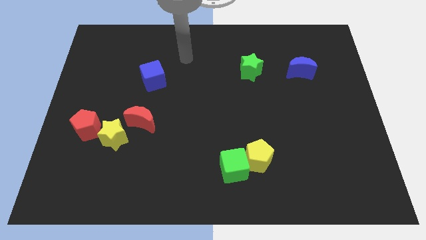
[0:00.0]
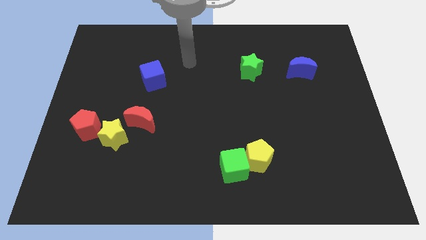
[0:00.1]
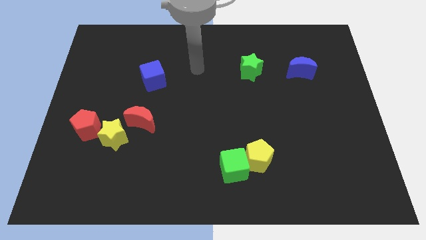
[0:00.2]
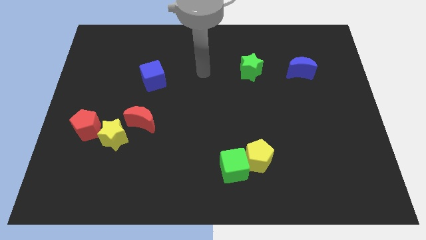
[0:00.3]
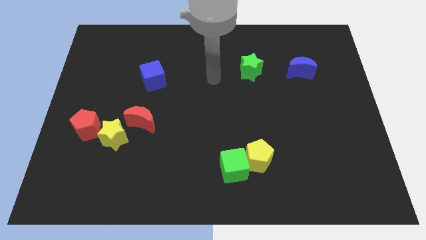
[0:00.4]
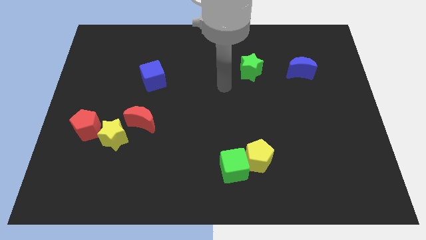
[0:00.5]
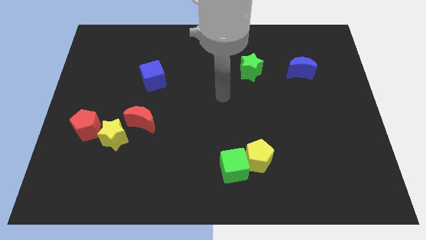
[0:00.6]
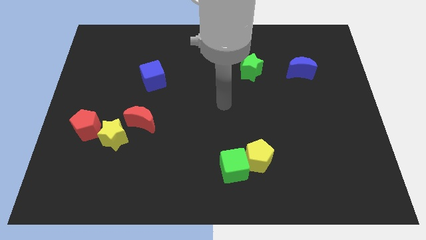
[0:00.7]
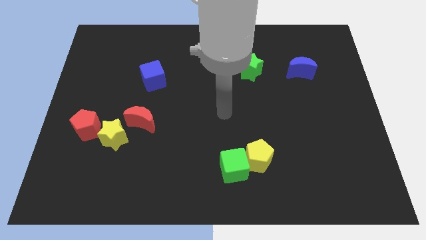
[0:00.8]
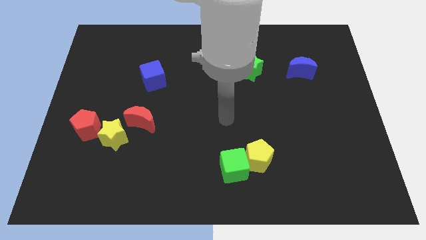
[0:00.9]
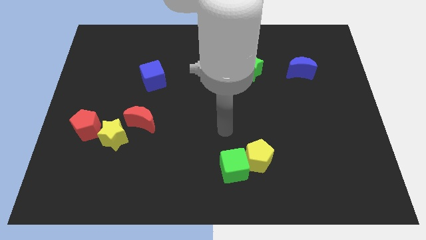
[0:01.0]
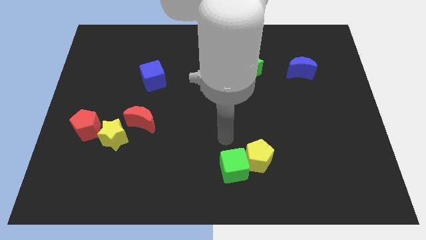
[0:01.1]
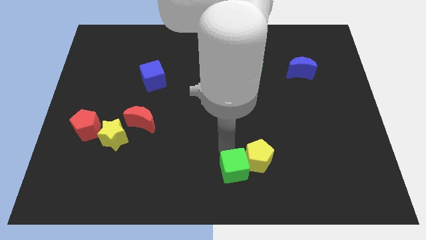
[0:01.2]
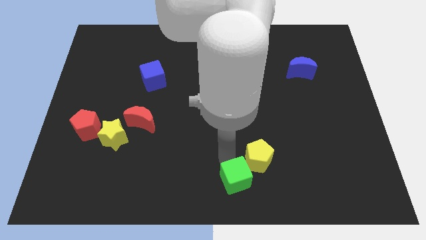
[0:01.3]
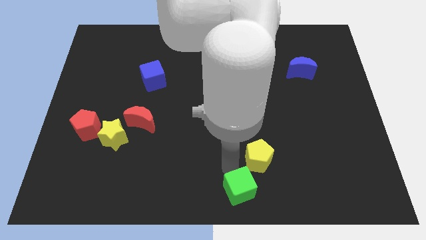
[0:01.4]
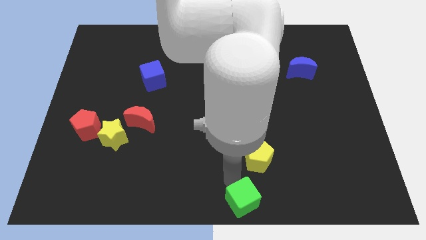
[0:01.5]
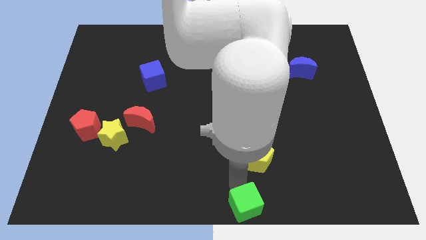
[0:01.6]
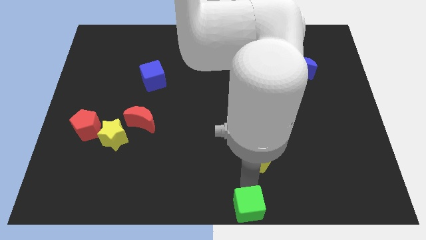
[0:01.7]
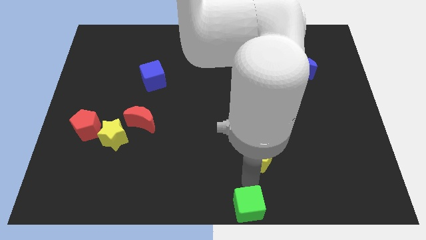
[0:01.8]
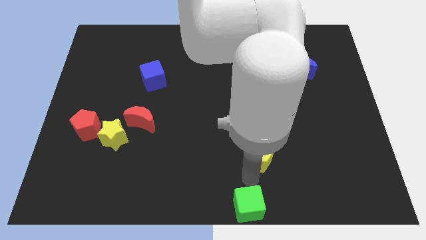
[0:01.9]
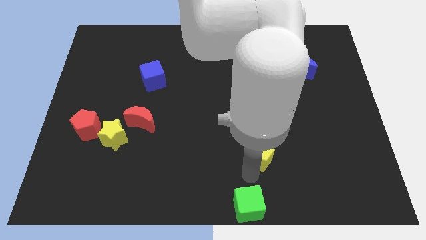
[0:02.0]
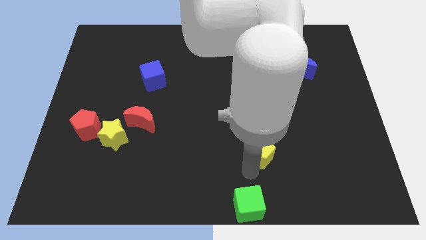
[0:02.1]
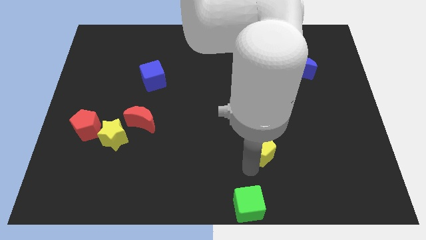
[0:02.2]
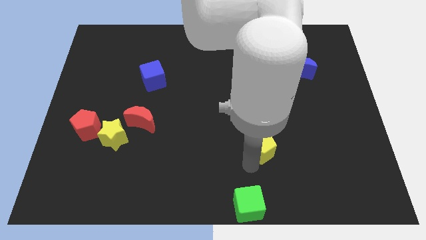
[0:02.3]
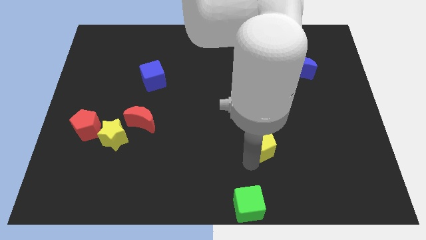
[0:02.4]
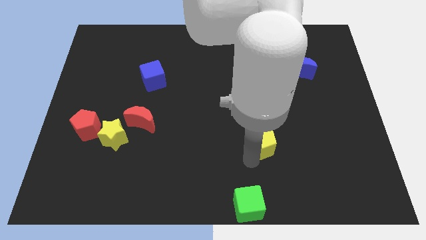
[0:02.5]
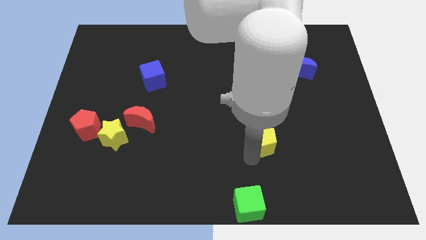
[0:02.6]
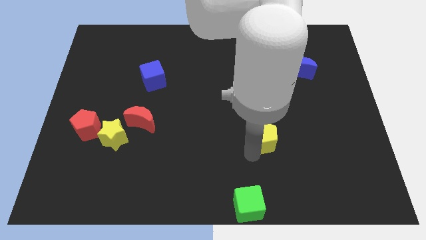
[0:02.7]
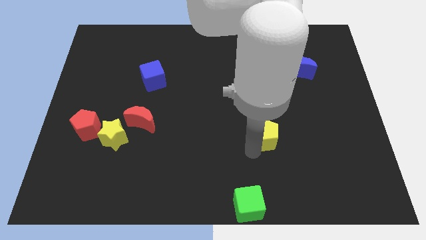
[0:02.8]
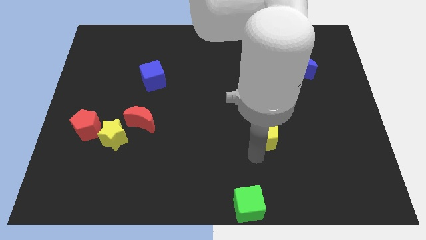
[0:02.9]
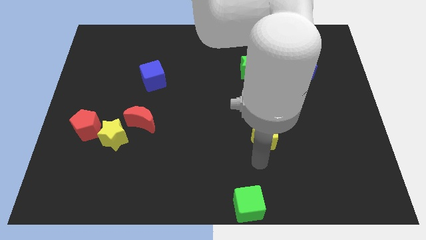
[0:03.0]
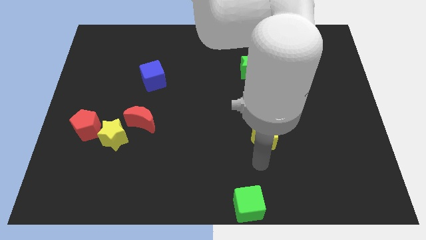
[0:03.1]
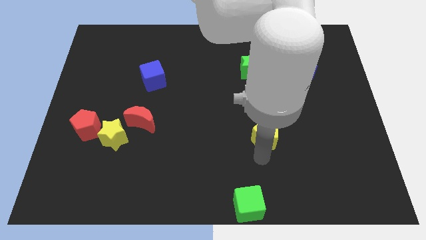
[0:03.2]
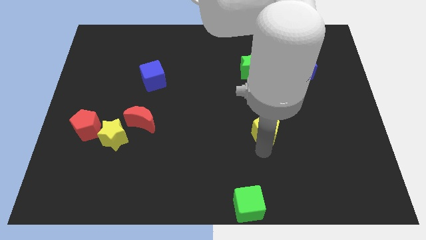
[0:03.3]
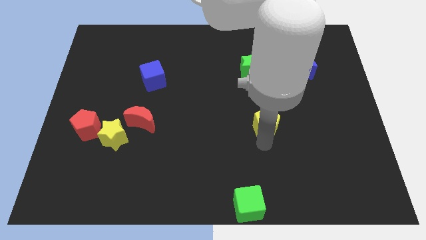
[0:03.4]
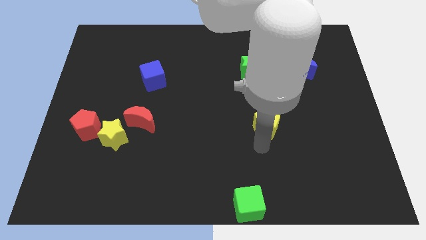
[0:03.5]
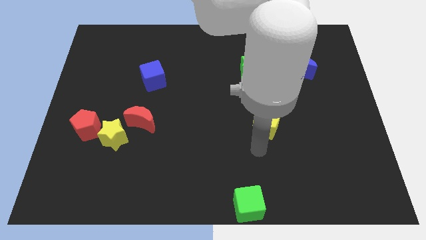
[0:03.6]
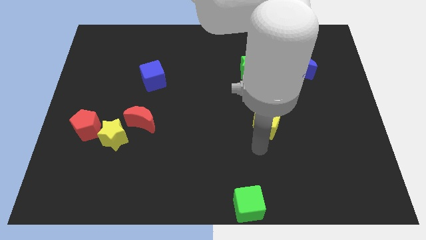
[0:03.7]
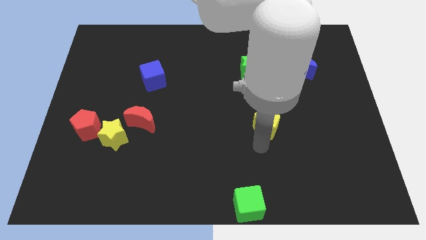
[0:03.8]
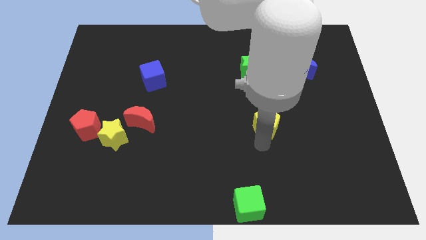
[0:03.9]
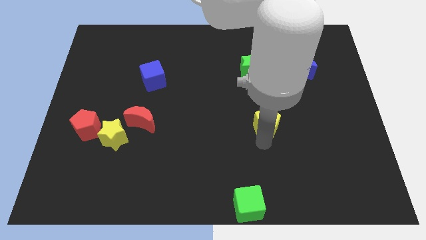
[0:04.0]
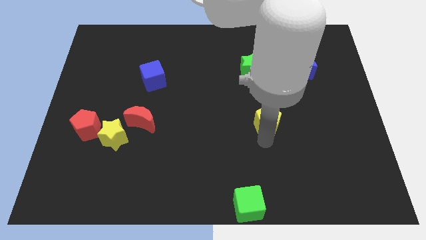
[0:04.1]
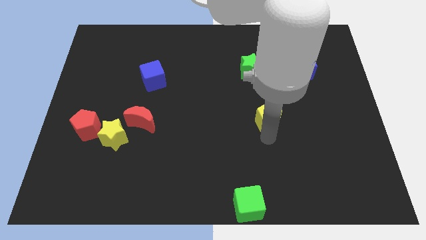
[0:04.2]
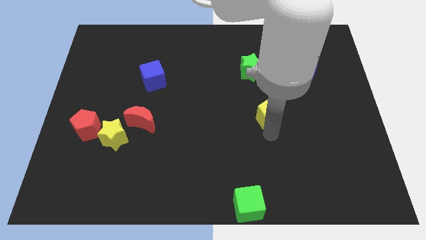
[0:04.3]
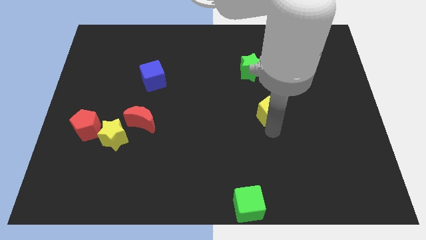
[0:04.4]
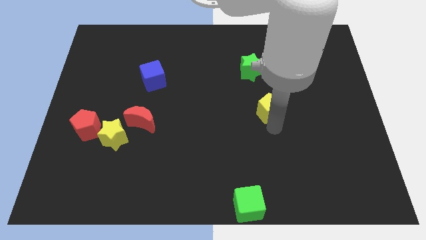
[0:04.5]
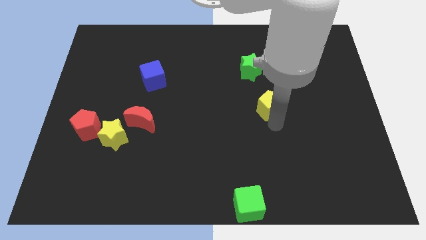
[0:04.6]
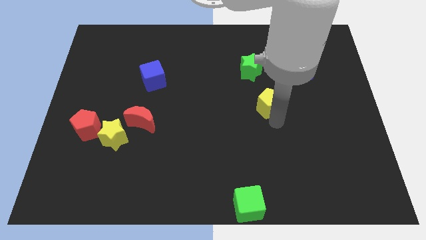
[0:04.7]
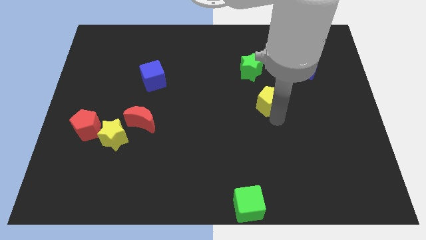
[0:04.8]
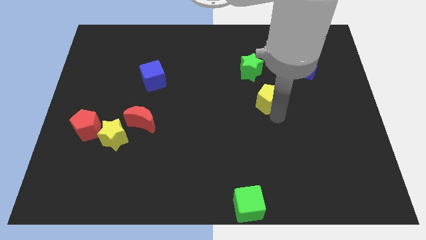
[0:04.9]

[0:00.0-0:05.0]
push the yellow pentagon to the bottom right of the green star

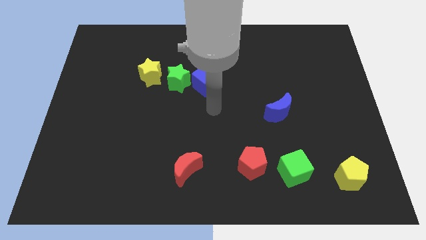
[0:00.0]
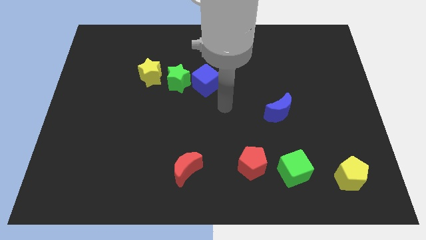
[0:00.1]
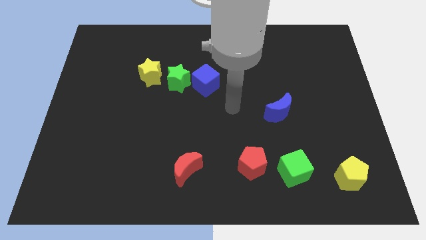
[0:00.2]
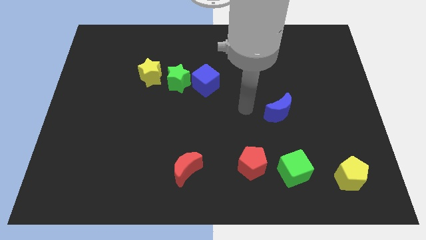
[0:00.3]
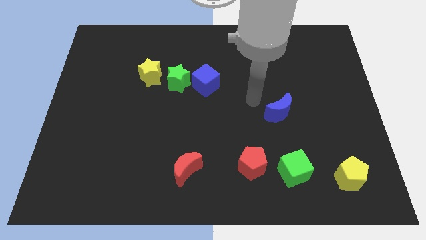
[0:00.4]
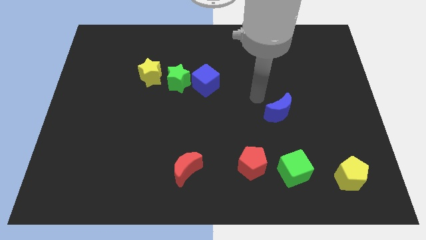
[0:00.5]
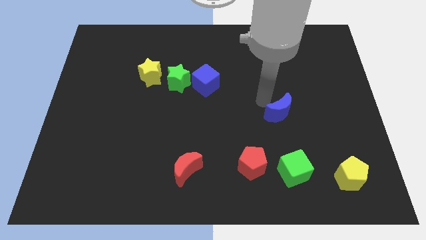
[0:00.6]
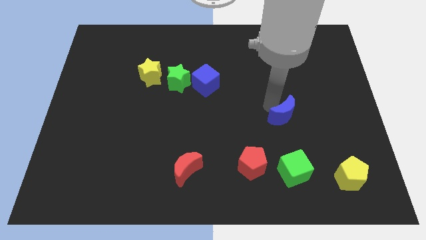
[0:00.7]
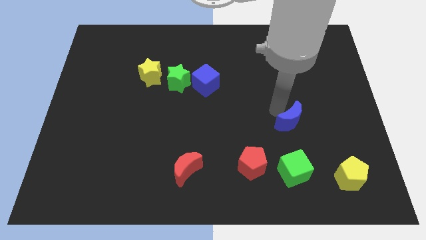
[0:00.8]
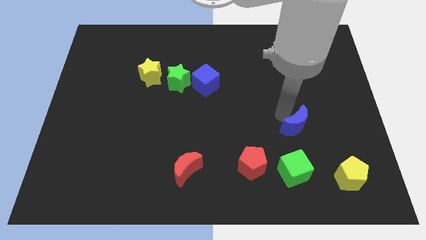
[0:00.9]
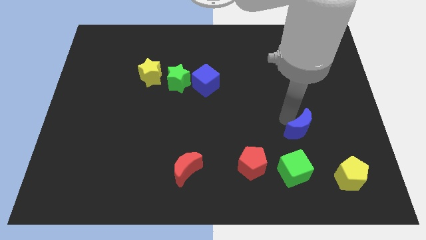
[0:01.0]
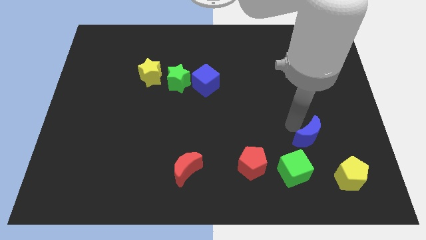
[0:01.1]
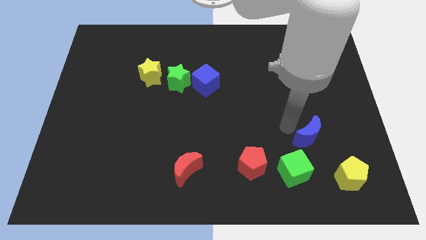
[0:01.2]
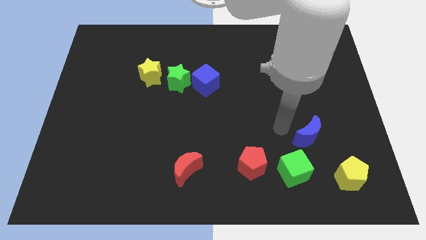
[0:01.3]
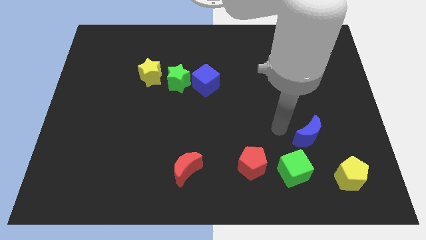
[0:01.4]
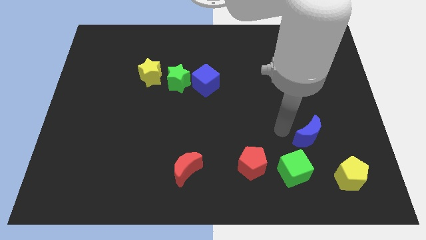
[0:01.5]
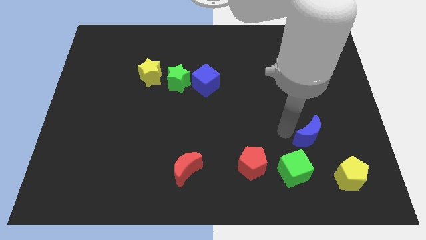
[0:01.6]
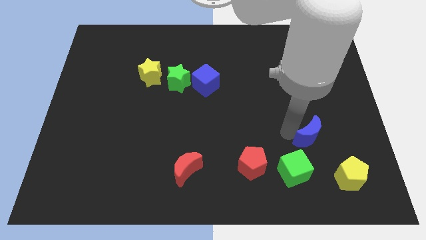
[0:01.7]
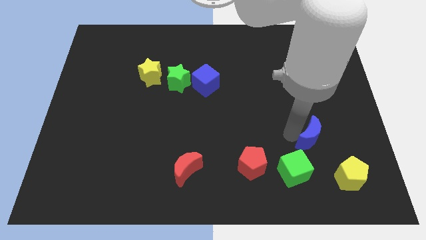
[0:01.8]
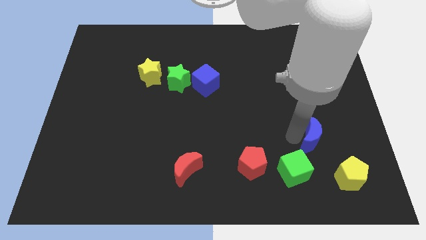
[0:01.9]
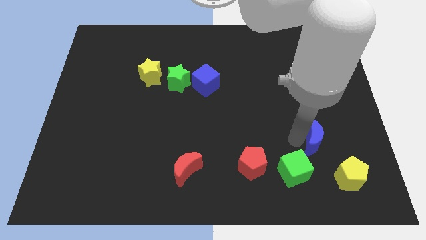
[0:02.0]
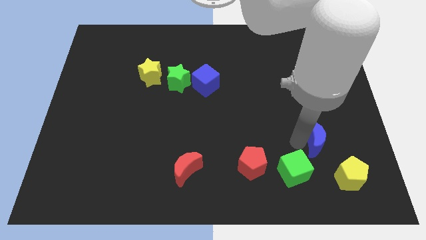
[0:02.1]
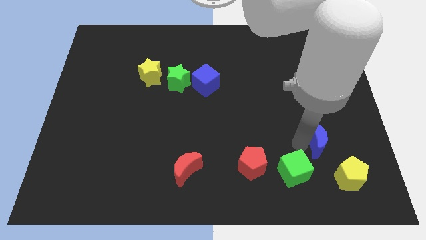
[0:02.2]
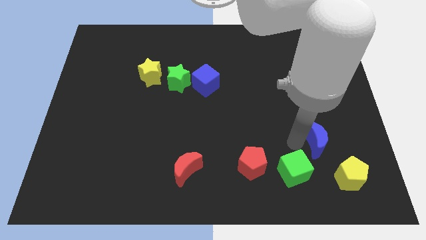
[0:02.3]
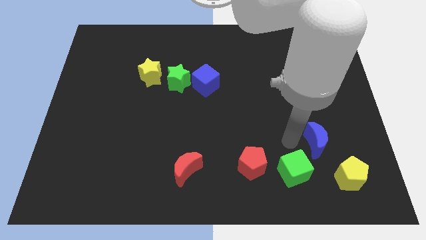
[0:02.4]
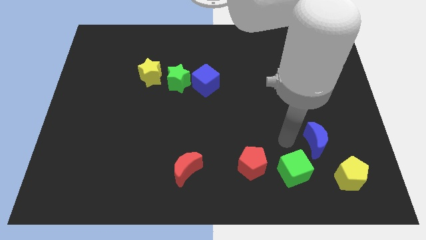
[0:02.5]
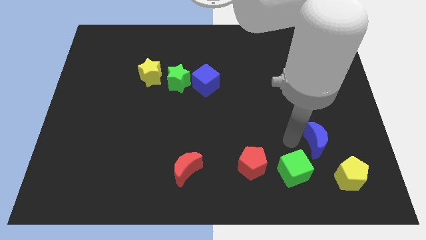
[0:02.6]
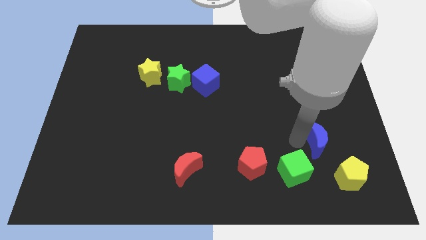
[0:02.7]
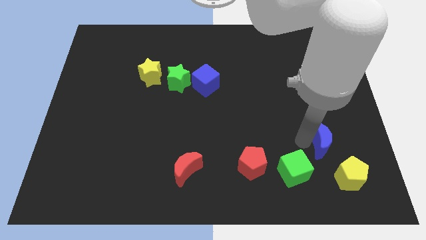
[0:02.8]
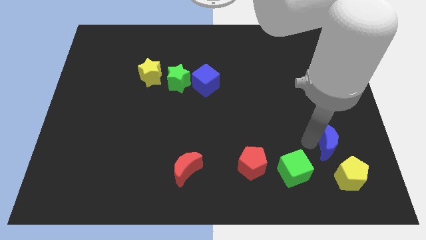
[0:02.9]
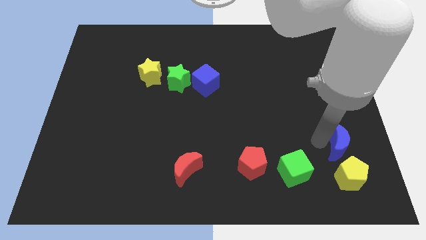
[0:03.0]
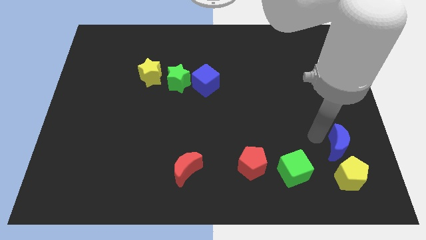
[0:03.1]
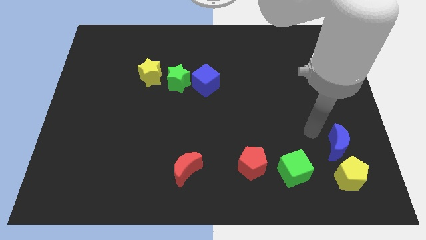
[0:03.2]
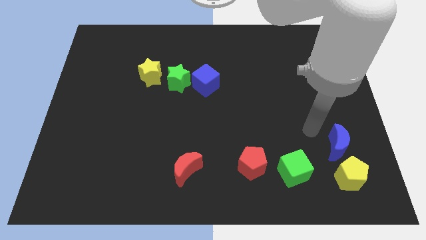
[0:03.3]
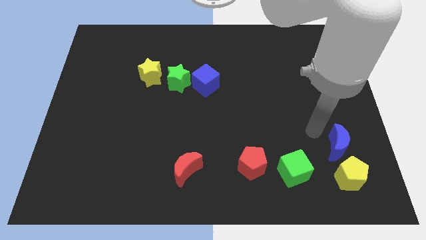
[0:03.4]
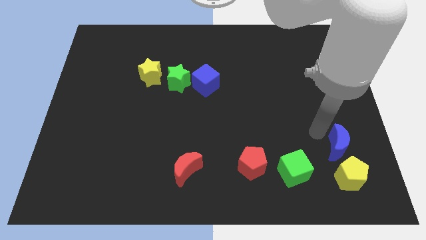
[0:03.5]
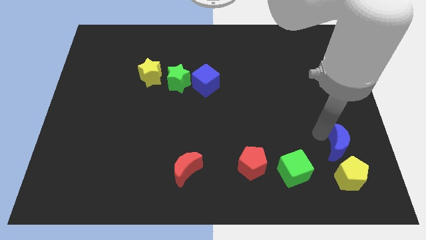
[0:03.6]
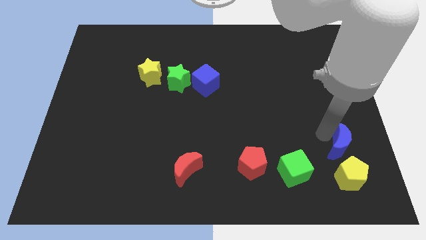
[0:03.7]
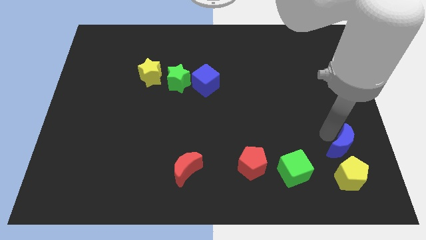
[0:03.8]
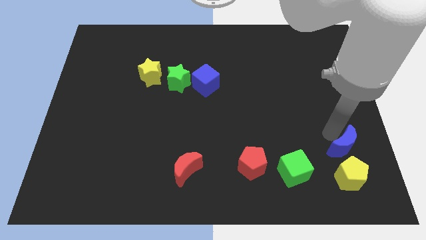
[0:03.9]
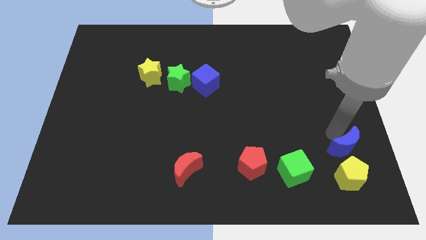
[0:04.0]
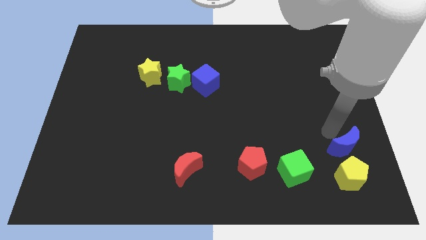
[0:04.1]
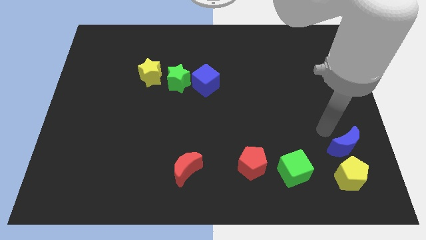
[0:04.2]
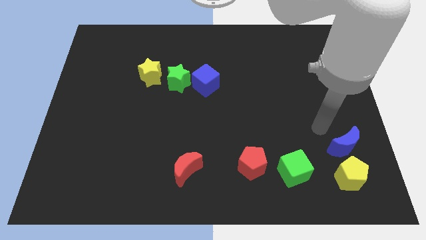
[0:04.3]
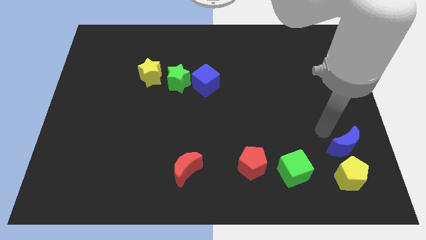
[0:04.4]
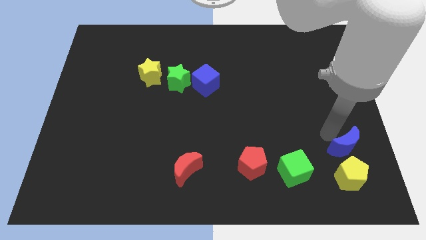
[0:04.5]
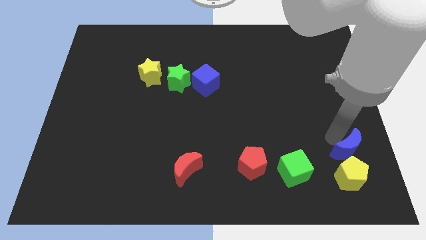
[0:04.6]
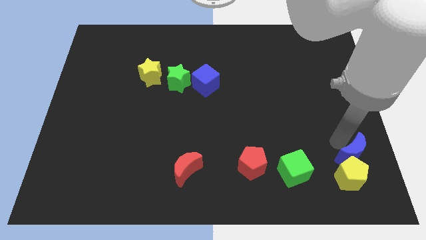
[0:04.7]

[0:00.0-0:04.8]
put the blue moon just right of the green cube
